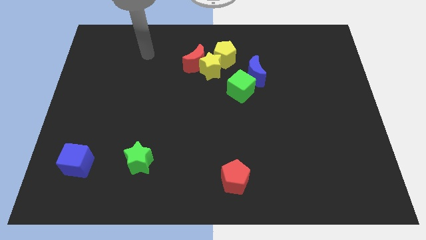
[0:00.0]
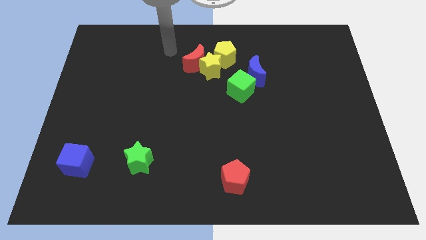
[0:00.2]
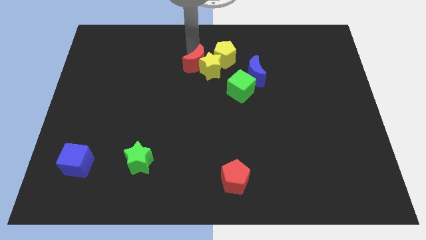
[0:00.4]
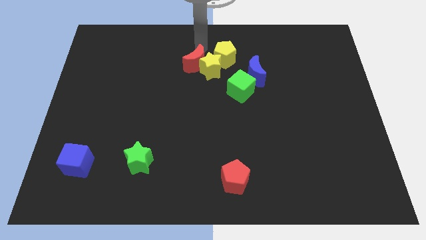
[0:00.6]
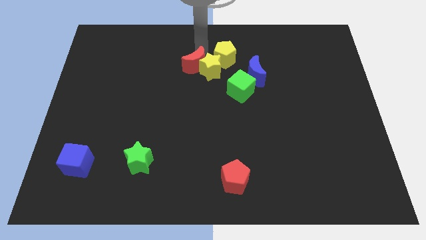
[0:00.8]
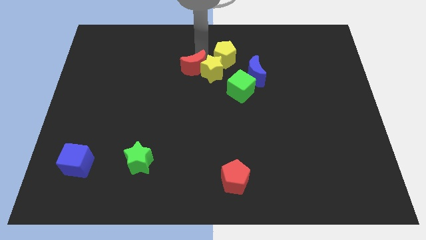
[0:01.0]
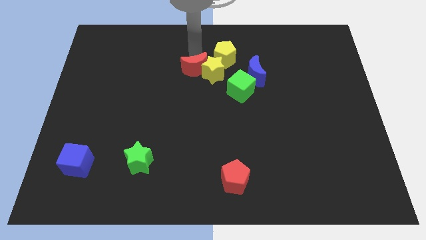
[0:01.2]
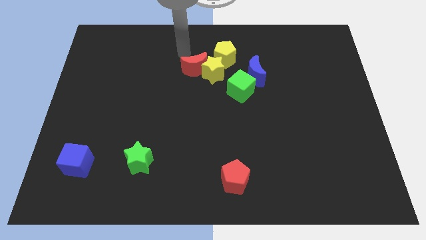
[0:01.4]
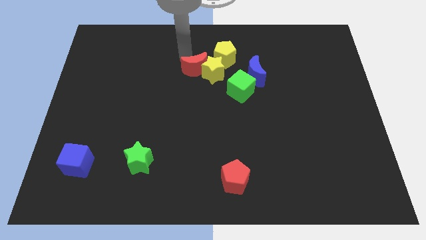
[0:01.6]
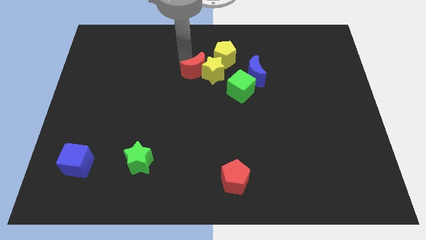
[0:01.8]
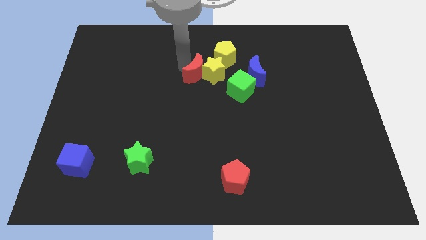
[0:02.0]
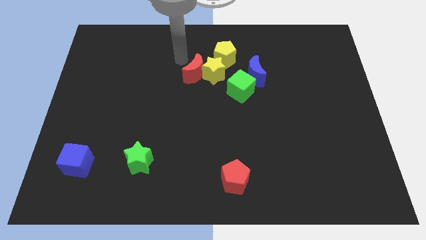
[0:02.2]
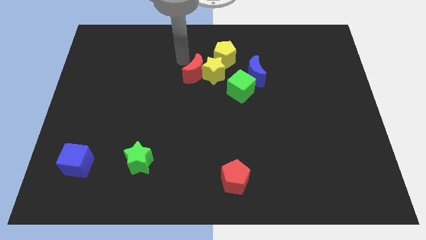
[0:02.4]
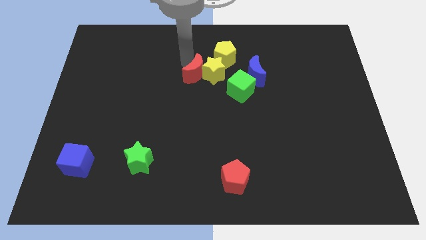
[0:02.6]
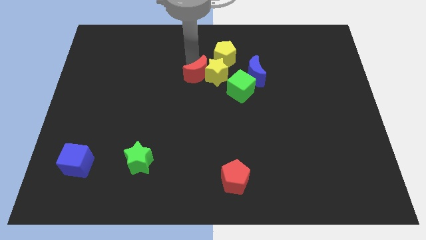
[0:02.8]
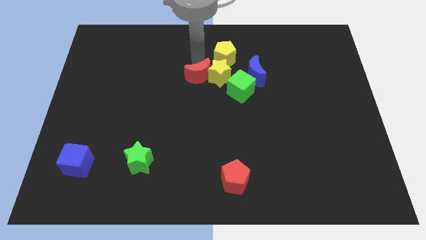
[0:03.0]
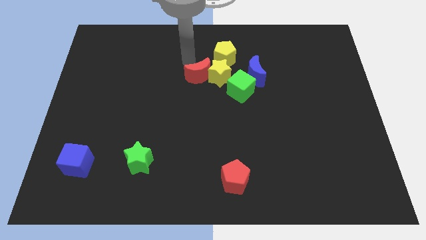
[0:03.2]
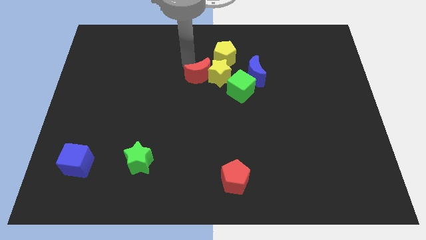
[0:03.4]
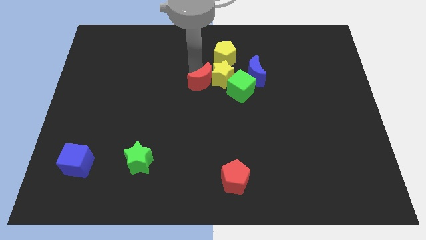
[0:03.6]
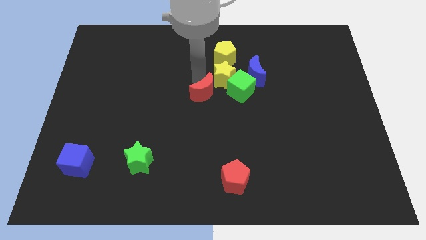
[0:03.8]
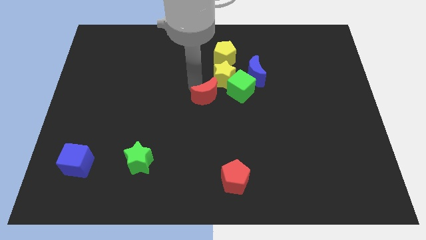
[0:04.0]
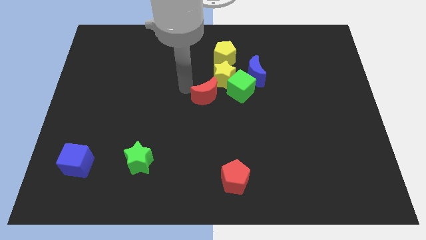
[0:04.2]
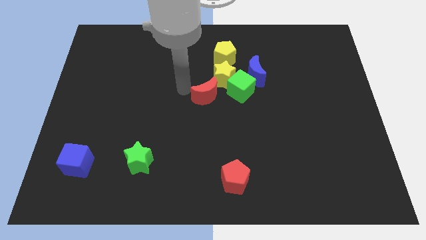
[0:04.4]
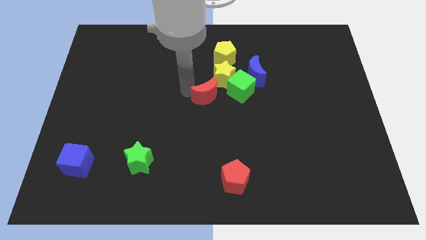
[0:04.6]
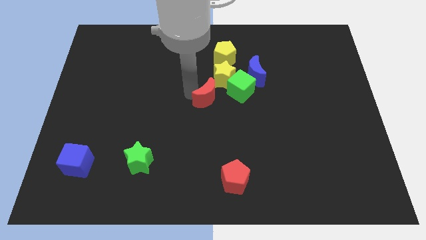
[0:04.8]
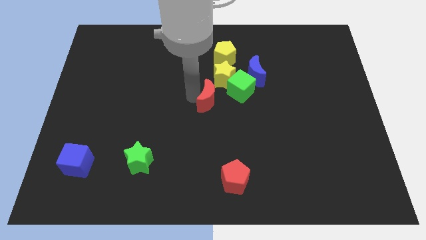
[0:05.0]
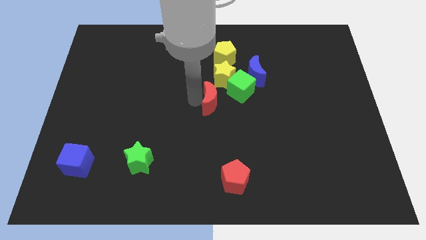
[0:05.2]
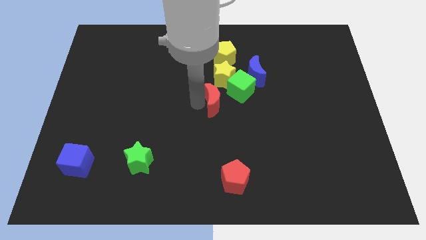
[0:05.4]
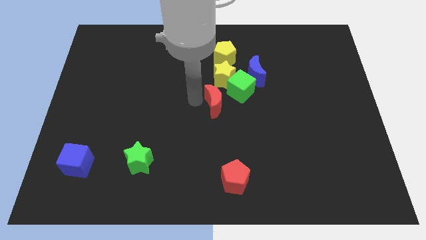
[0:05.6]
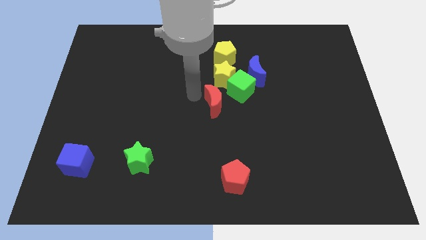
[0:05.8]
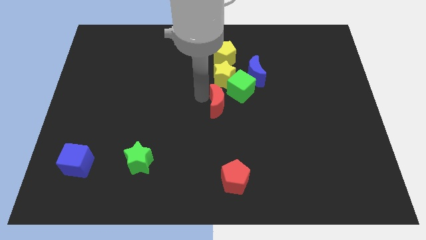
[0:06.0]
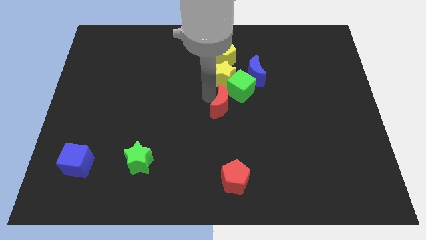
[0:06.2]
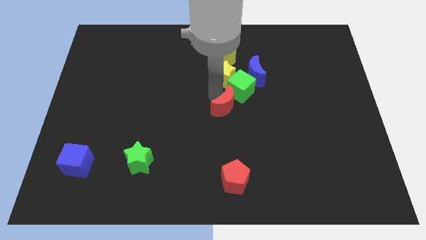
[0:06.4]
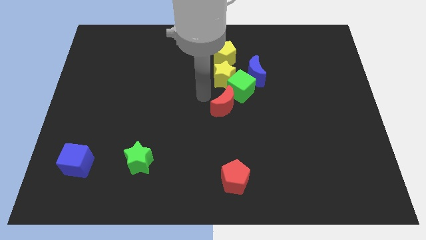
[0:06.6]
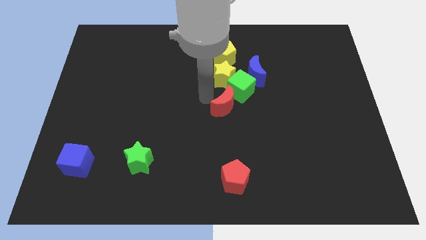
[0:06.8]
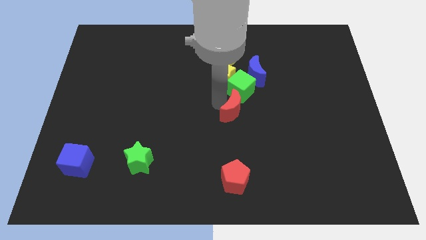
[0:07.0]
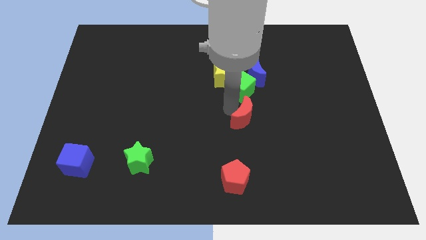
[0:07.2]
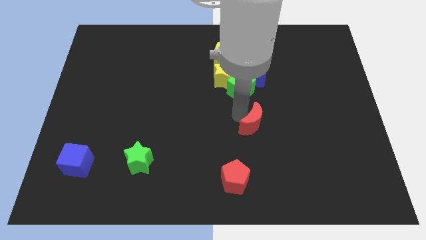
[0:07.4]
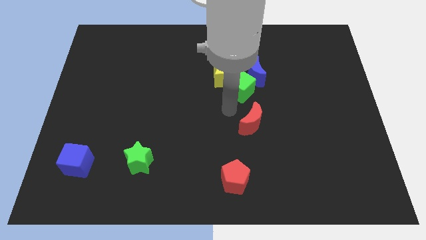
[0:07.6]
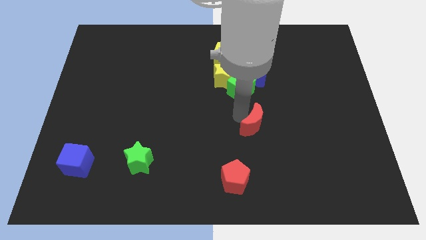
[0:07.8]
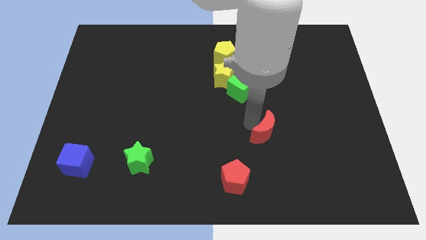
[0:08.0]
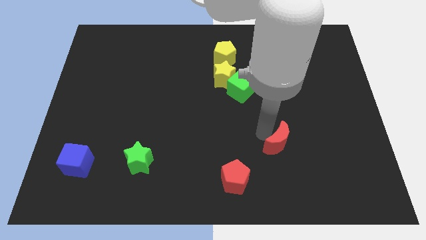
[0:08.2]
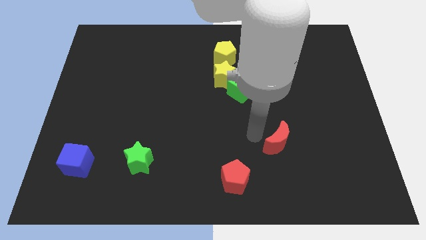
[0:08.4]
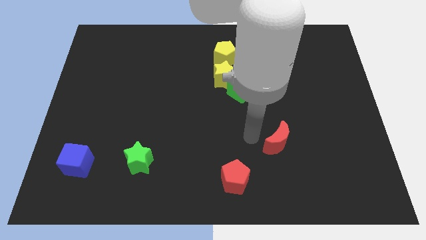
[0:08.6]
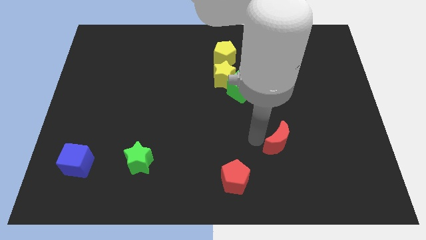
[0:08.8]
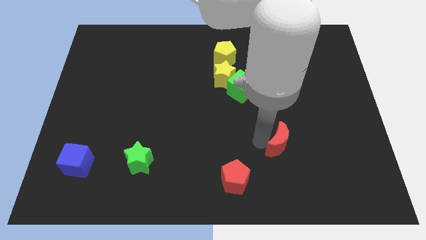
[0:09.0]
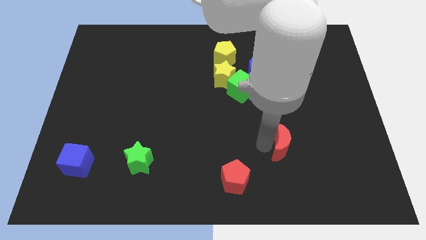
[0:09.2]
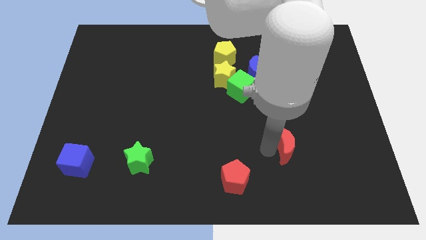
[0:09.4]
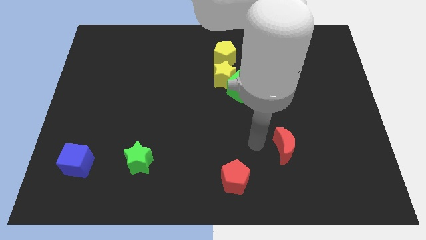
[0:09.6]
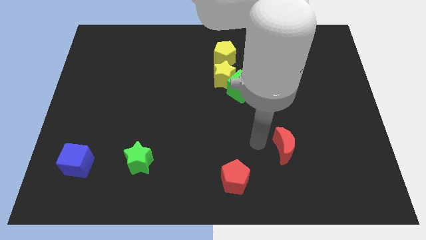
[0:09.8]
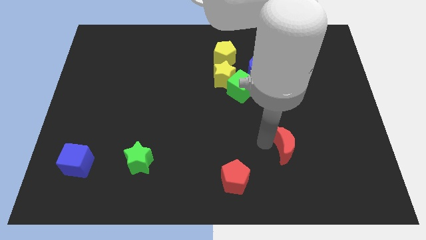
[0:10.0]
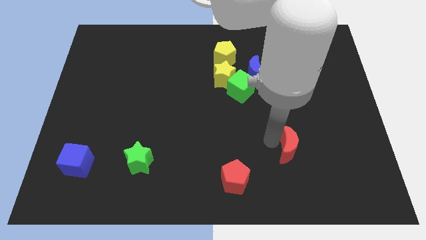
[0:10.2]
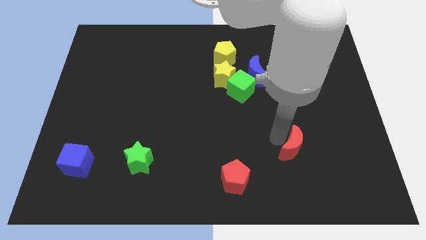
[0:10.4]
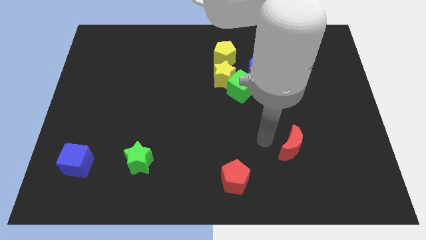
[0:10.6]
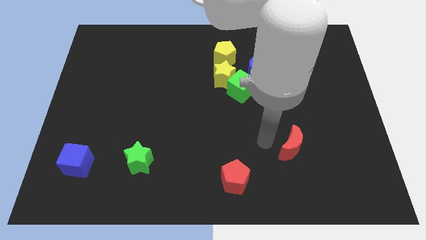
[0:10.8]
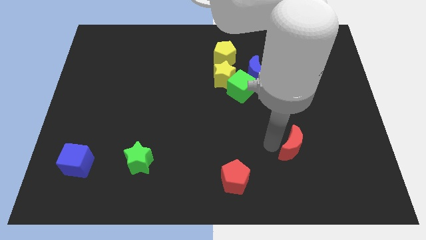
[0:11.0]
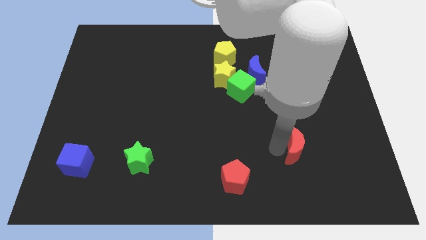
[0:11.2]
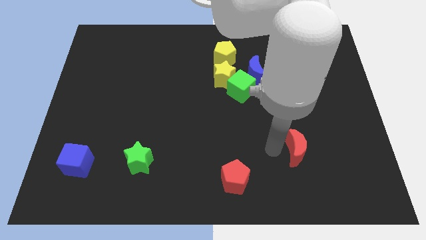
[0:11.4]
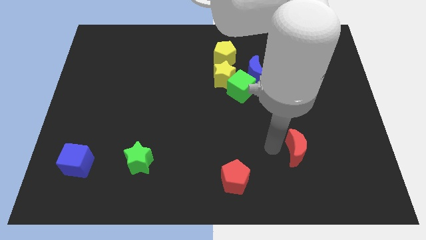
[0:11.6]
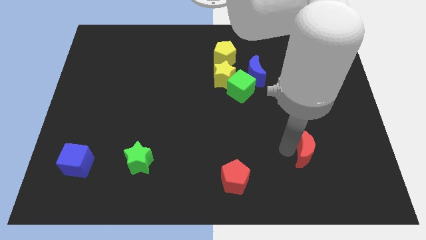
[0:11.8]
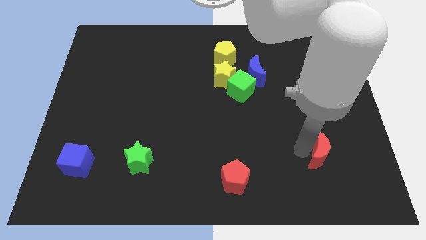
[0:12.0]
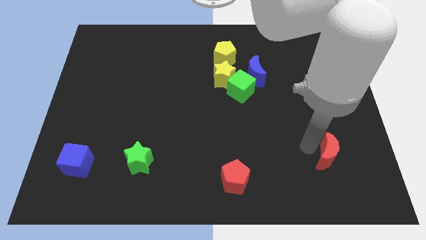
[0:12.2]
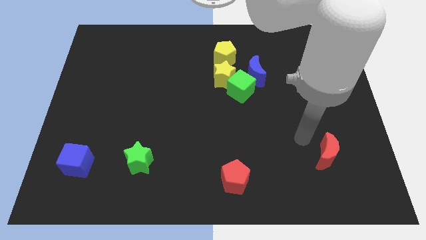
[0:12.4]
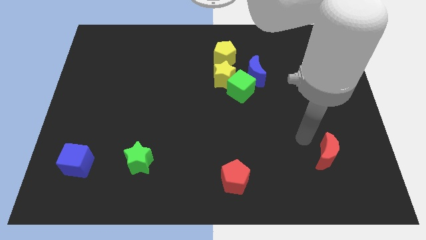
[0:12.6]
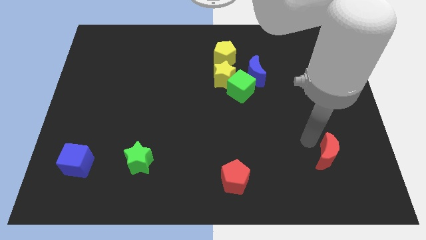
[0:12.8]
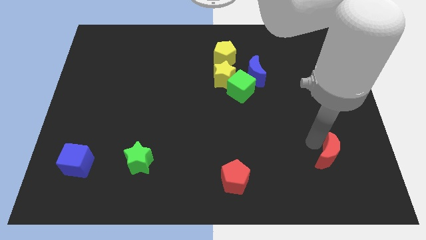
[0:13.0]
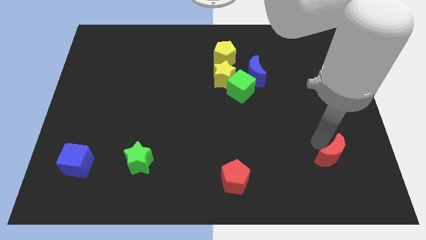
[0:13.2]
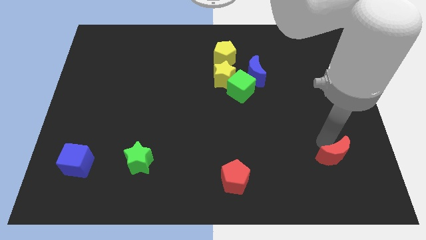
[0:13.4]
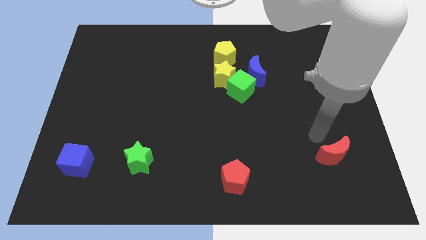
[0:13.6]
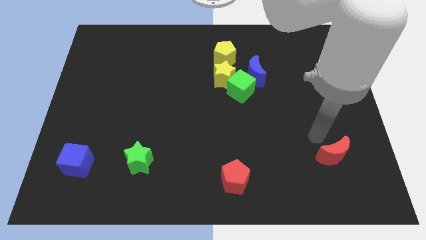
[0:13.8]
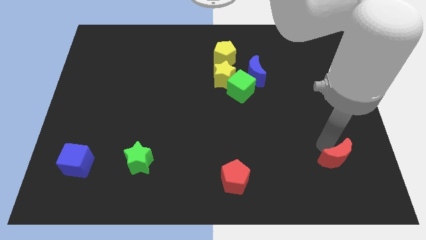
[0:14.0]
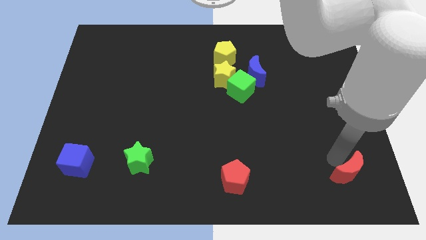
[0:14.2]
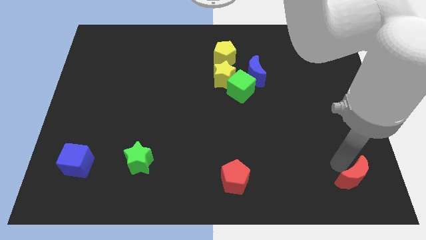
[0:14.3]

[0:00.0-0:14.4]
slide the red moon to the bottom right corner
